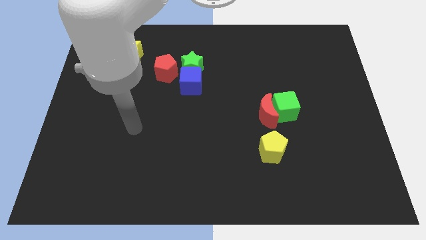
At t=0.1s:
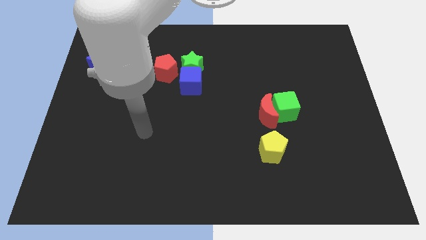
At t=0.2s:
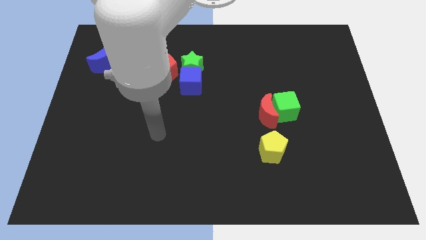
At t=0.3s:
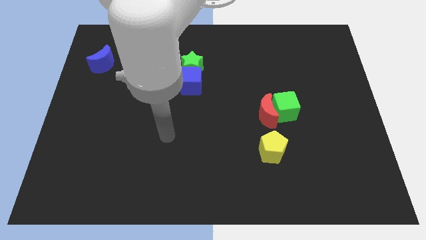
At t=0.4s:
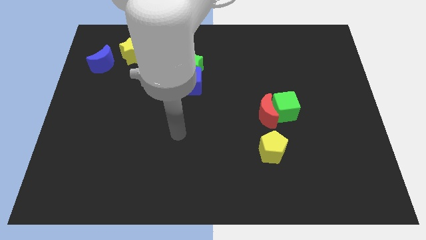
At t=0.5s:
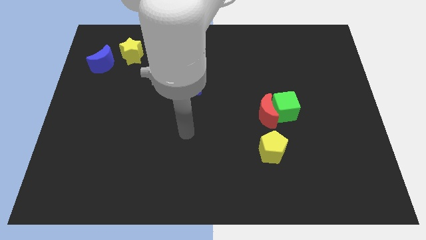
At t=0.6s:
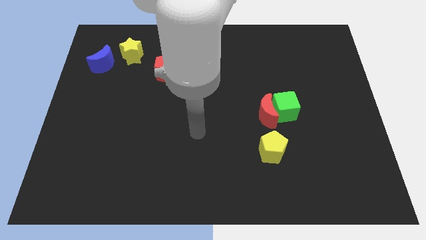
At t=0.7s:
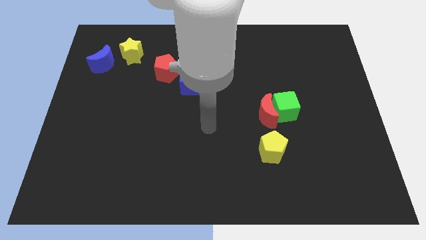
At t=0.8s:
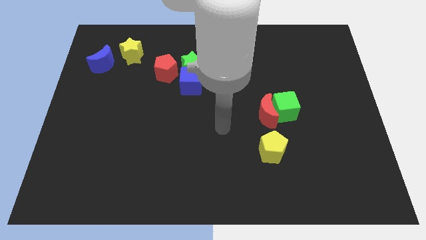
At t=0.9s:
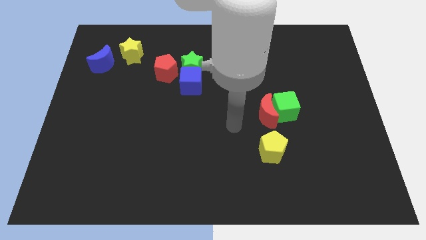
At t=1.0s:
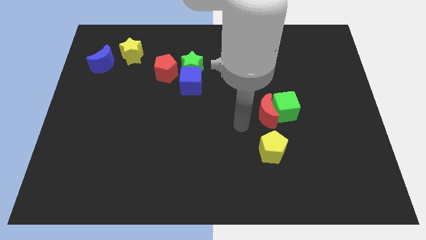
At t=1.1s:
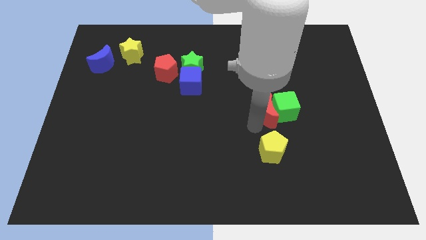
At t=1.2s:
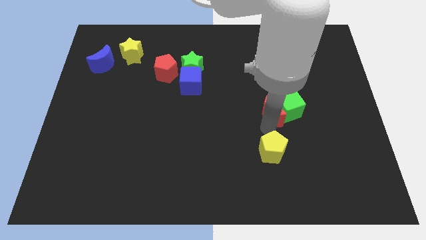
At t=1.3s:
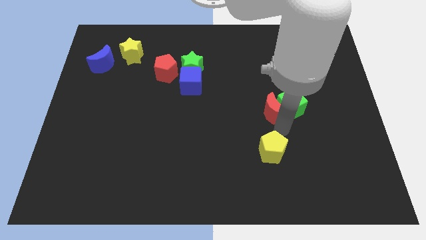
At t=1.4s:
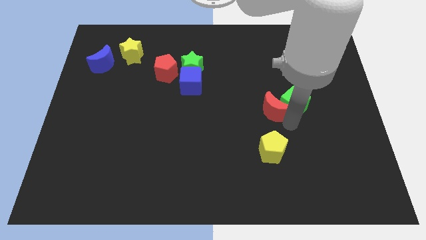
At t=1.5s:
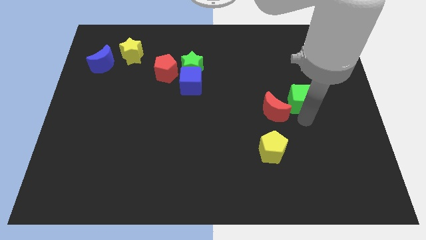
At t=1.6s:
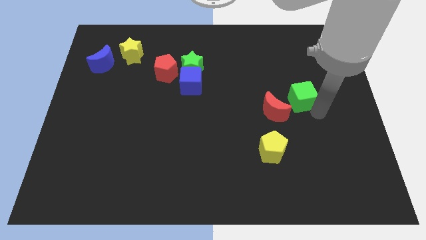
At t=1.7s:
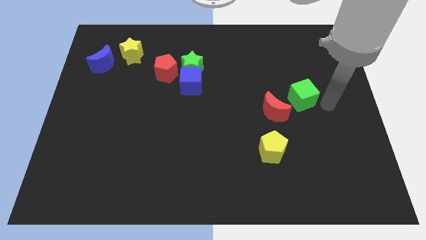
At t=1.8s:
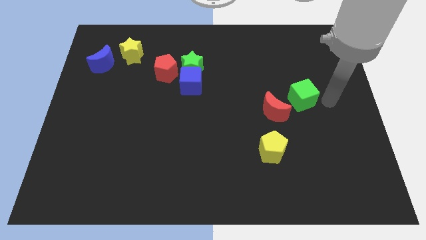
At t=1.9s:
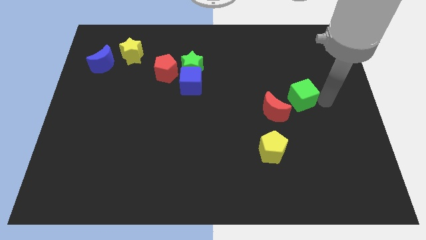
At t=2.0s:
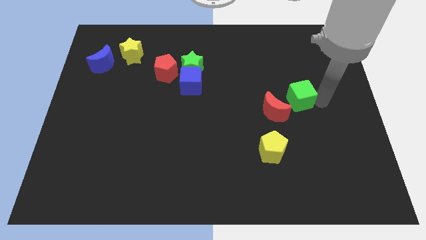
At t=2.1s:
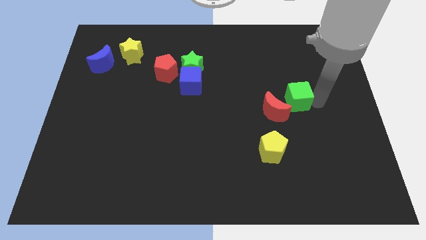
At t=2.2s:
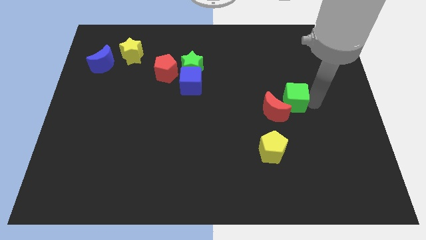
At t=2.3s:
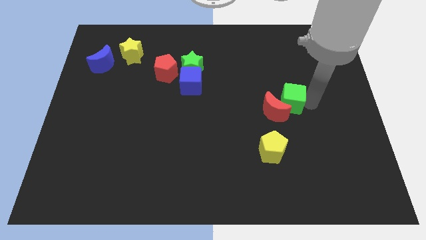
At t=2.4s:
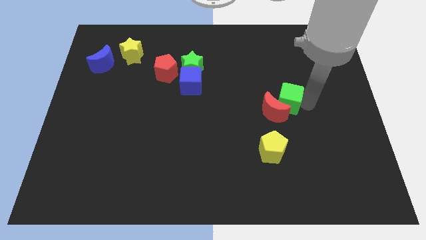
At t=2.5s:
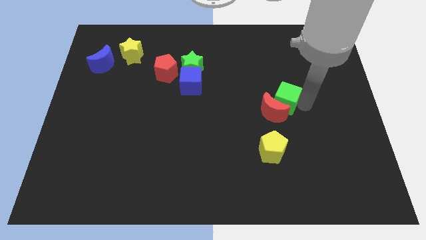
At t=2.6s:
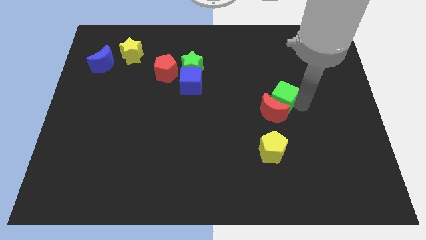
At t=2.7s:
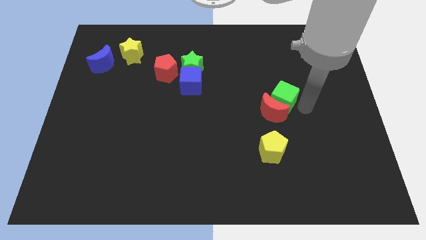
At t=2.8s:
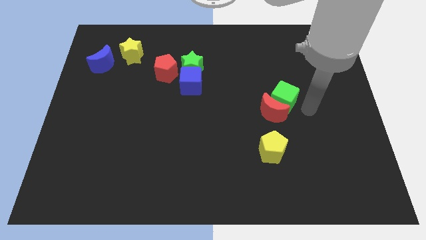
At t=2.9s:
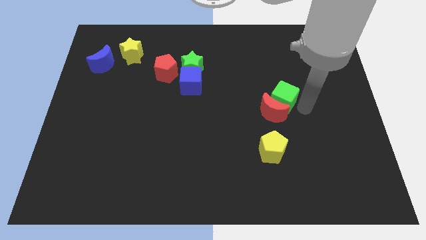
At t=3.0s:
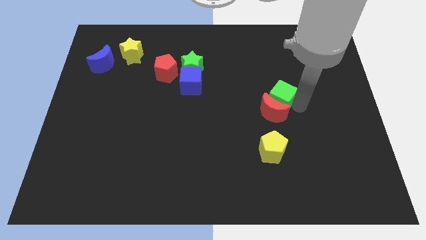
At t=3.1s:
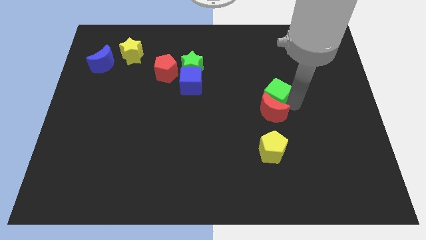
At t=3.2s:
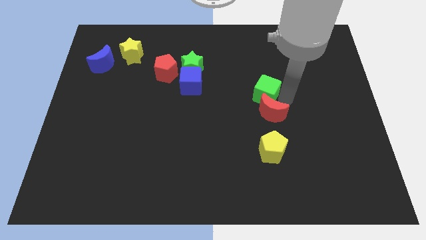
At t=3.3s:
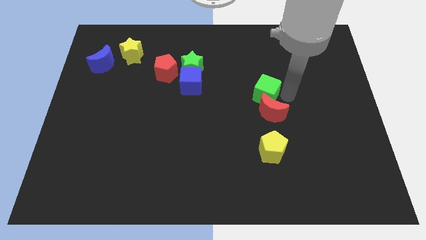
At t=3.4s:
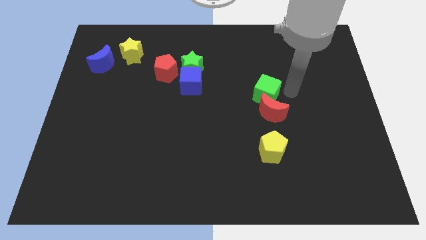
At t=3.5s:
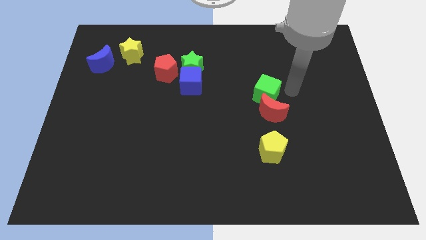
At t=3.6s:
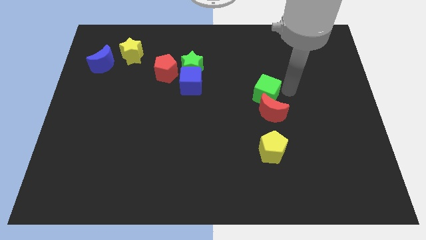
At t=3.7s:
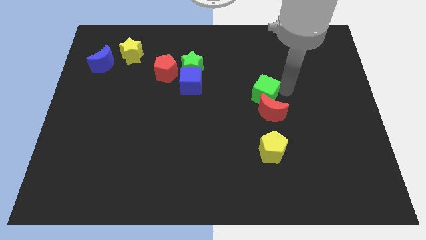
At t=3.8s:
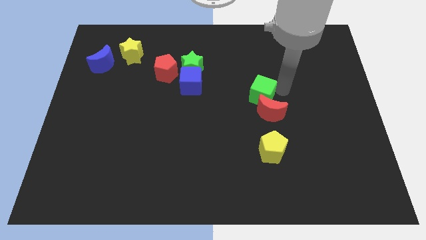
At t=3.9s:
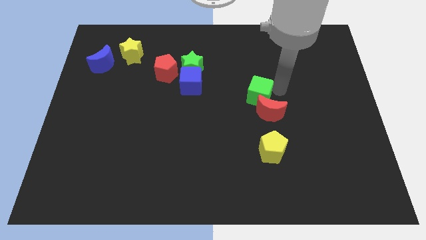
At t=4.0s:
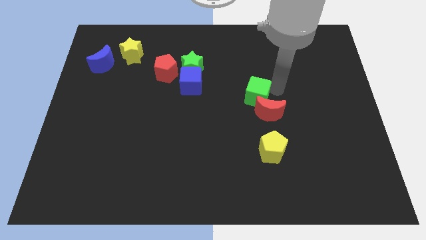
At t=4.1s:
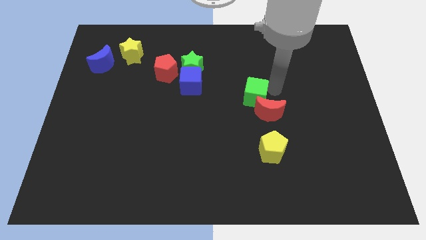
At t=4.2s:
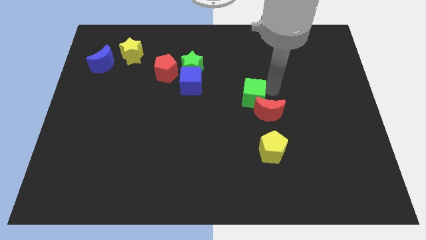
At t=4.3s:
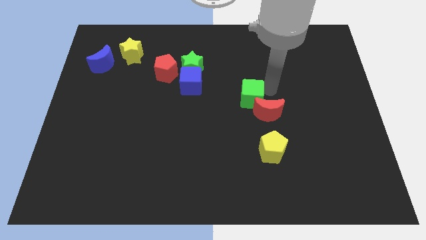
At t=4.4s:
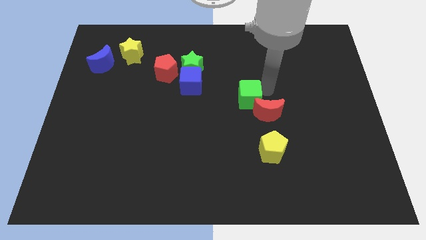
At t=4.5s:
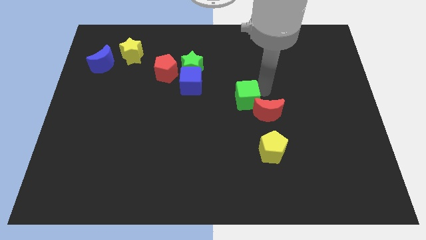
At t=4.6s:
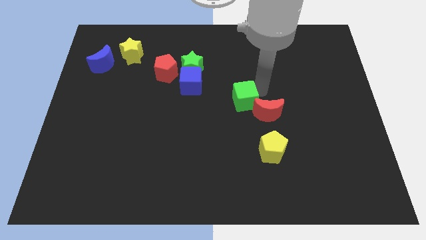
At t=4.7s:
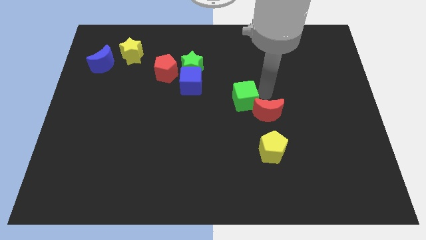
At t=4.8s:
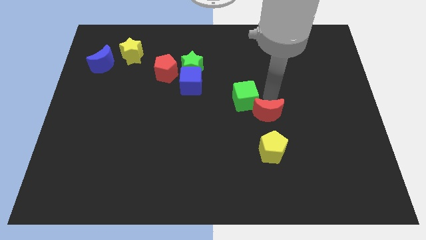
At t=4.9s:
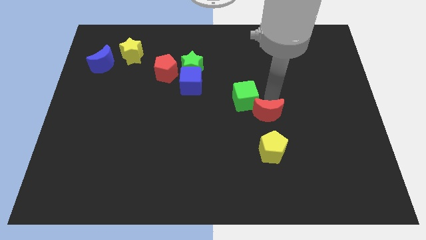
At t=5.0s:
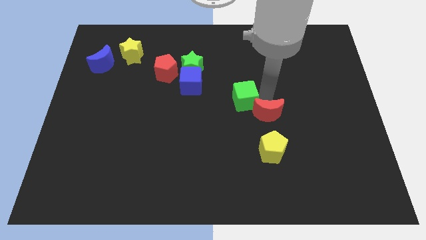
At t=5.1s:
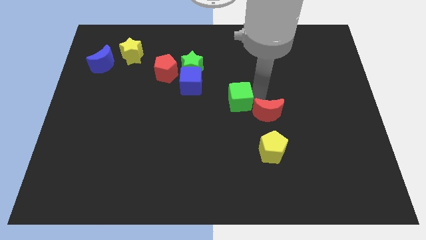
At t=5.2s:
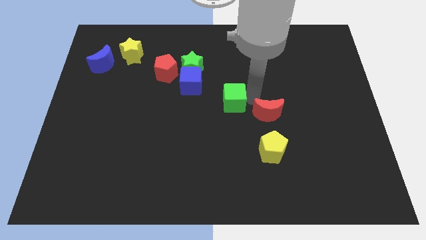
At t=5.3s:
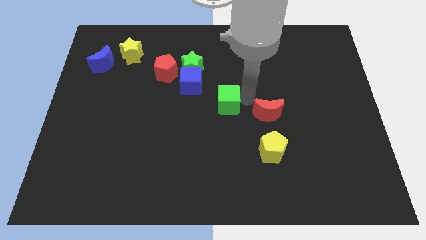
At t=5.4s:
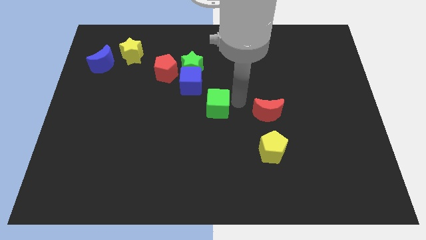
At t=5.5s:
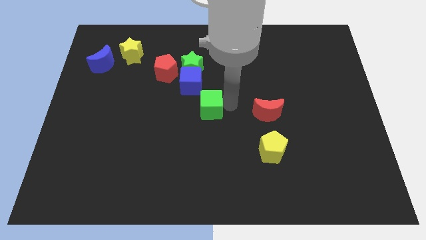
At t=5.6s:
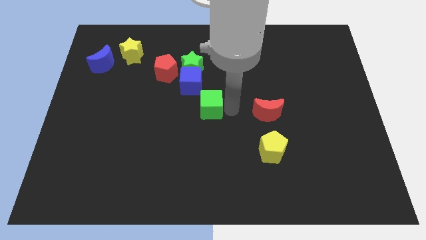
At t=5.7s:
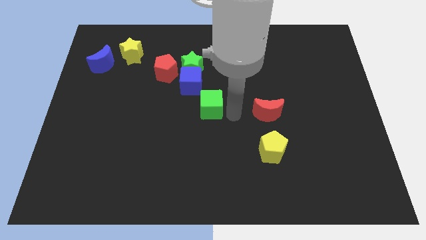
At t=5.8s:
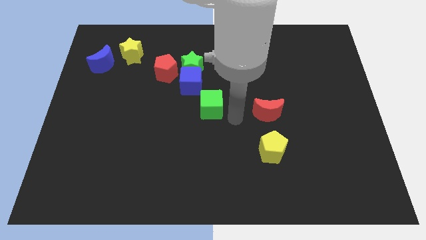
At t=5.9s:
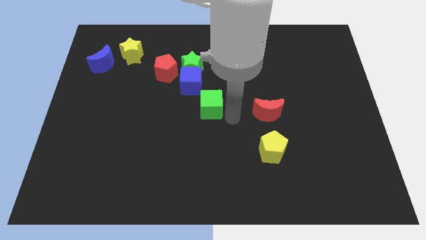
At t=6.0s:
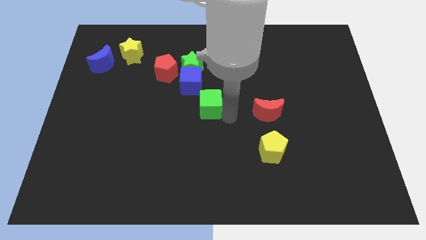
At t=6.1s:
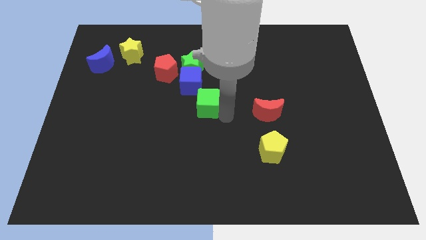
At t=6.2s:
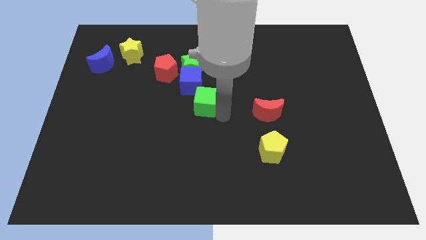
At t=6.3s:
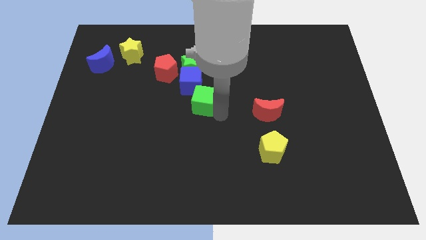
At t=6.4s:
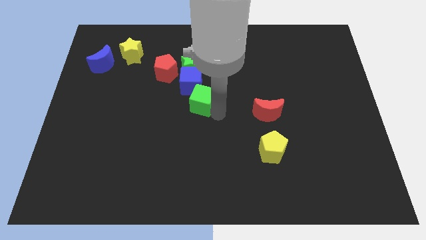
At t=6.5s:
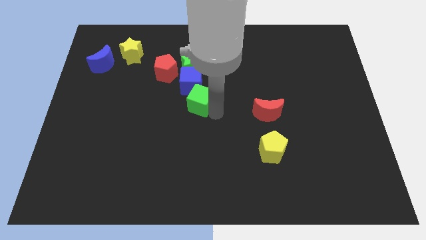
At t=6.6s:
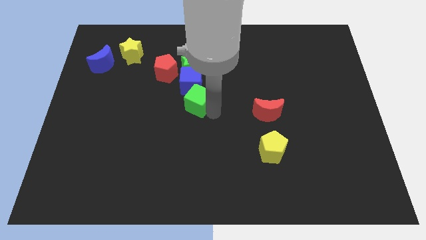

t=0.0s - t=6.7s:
slide the green cube left

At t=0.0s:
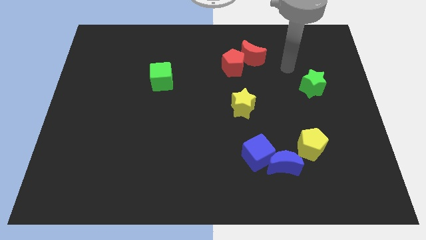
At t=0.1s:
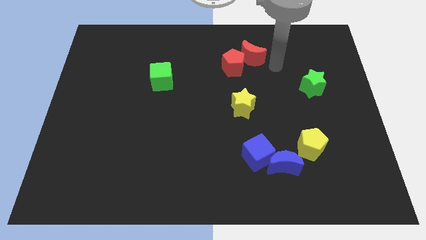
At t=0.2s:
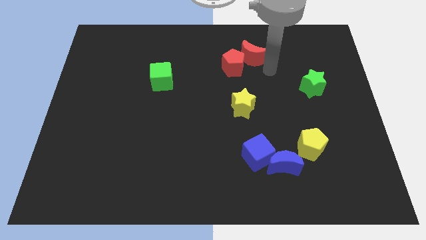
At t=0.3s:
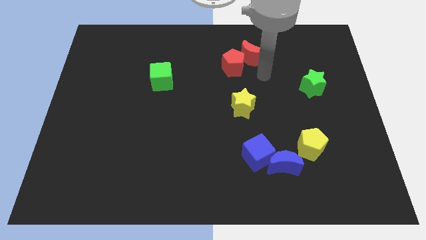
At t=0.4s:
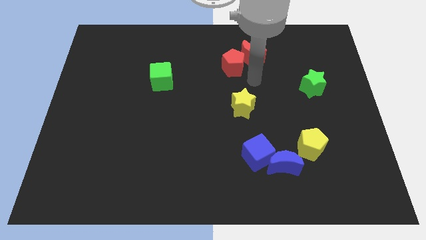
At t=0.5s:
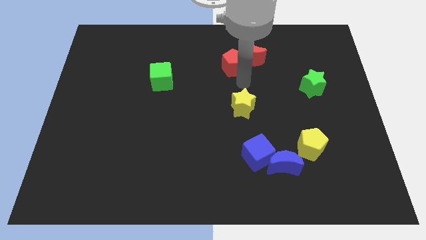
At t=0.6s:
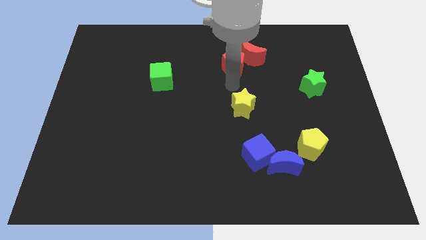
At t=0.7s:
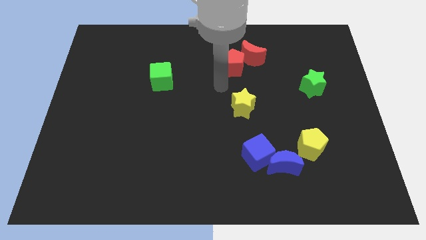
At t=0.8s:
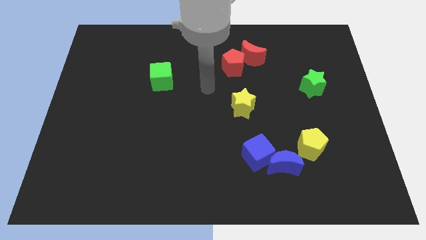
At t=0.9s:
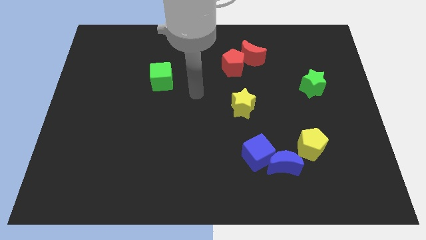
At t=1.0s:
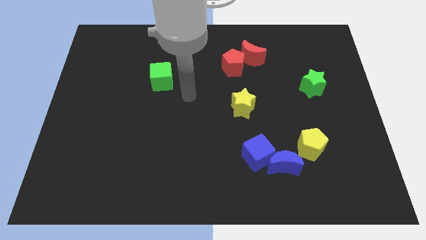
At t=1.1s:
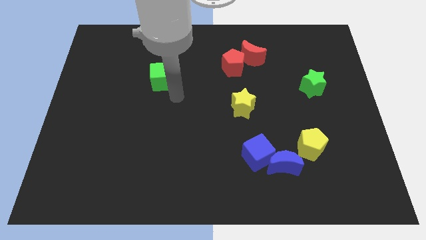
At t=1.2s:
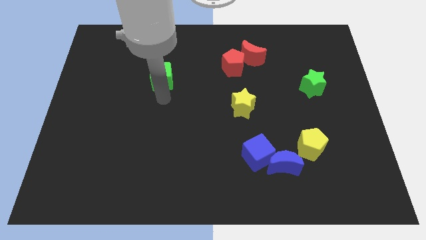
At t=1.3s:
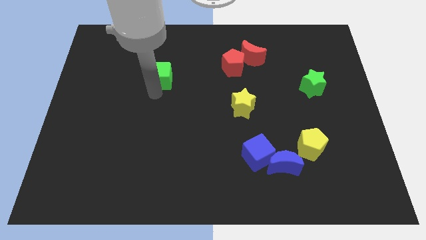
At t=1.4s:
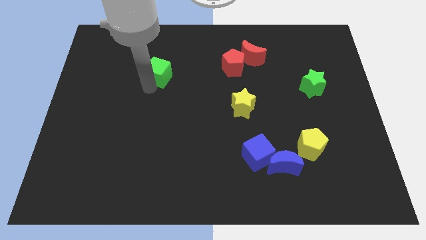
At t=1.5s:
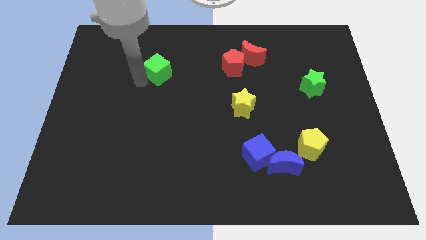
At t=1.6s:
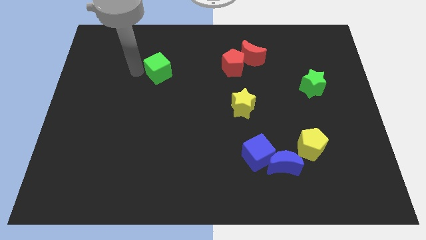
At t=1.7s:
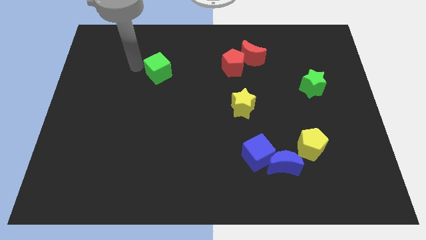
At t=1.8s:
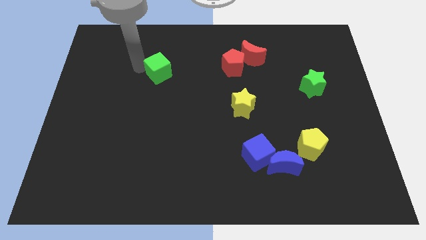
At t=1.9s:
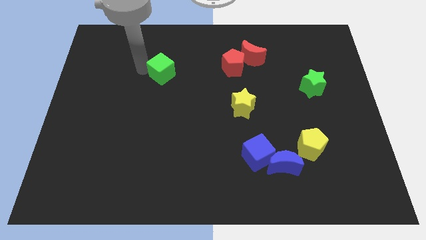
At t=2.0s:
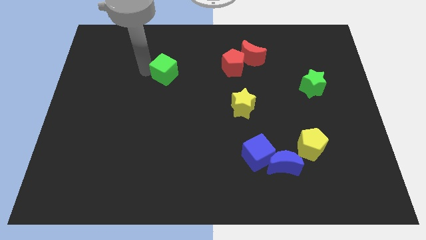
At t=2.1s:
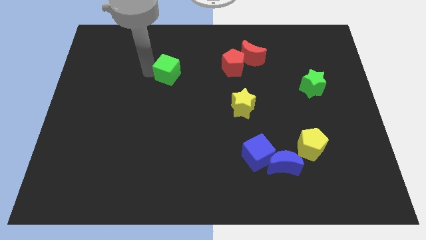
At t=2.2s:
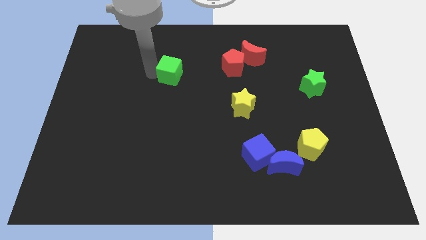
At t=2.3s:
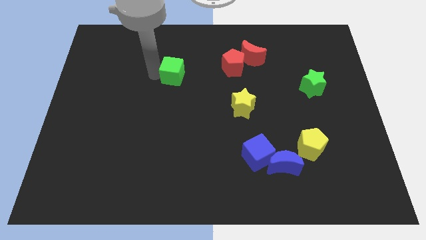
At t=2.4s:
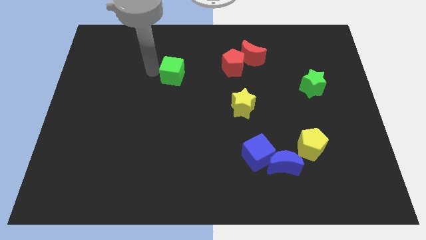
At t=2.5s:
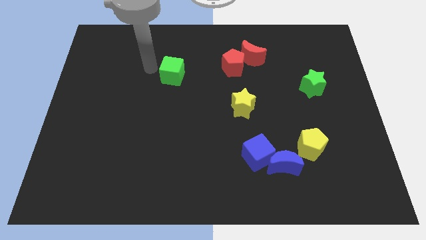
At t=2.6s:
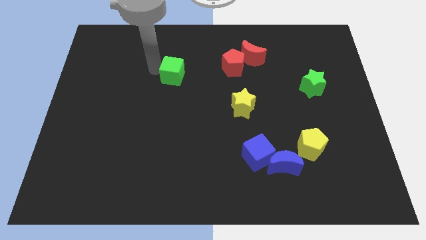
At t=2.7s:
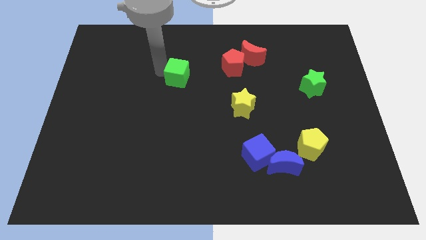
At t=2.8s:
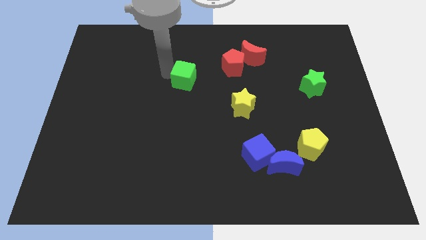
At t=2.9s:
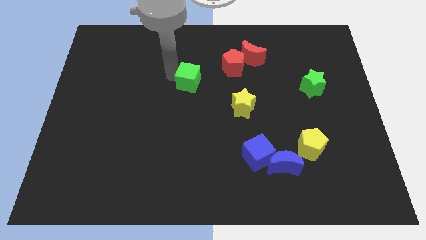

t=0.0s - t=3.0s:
move the green cube a bit to the right
